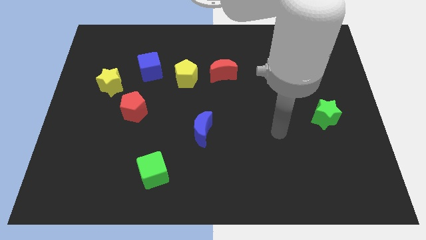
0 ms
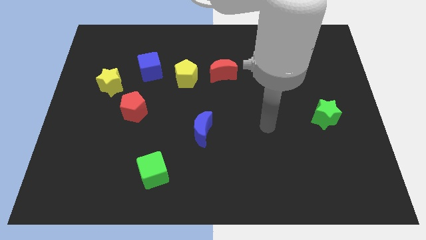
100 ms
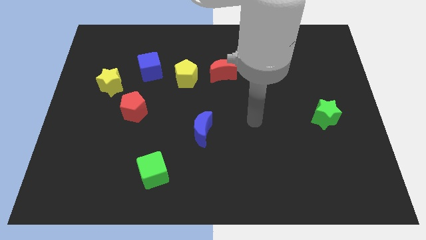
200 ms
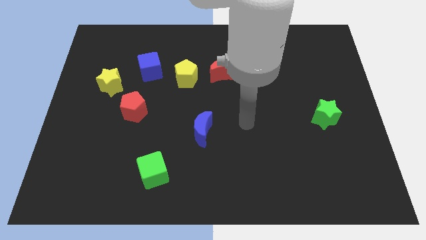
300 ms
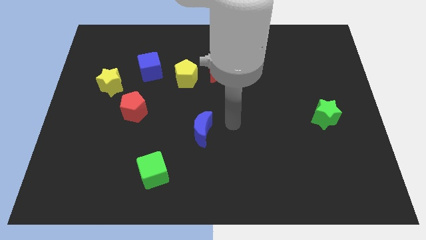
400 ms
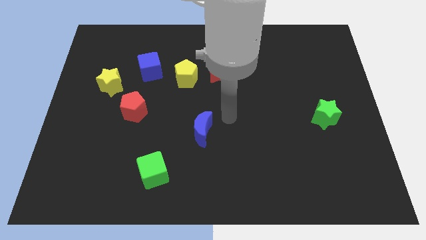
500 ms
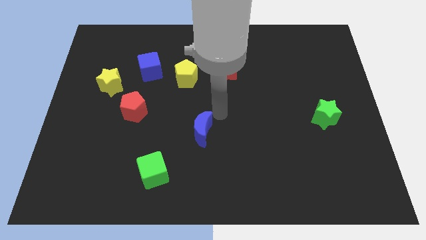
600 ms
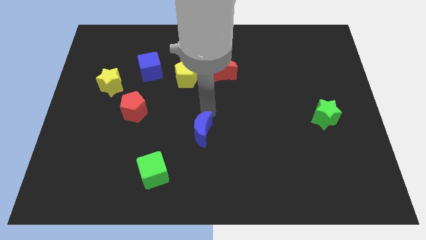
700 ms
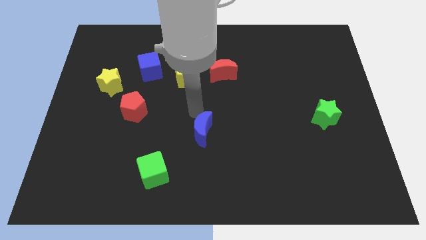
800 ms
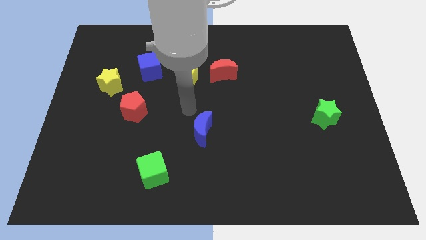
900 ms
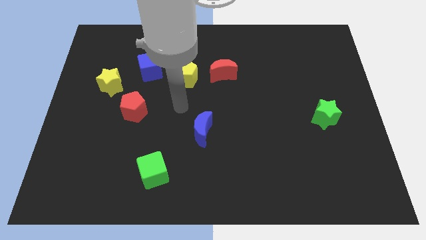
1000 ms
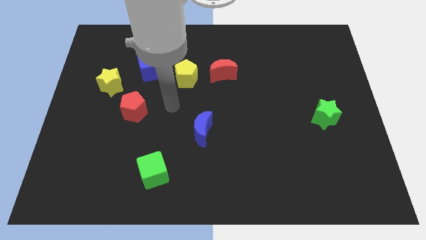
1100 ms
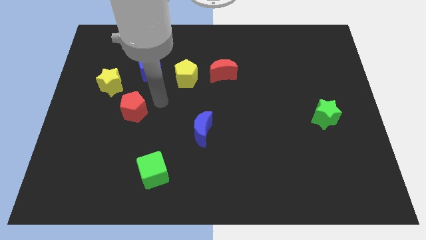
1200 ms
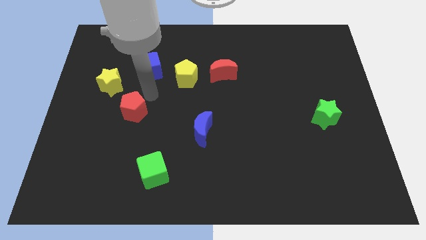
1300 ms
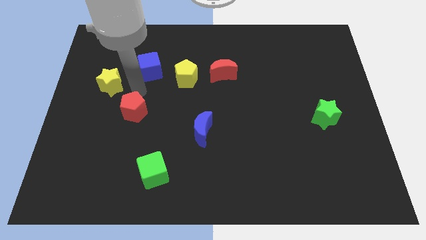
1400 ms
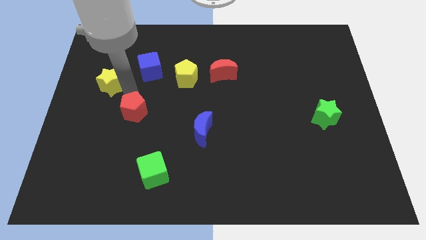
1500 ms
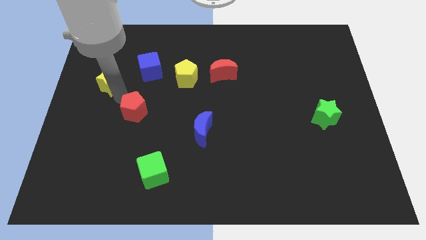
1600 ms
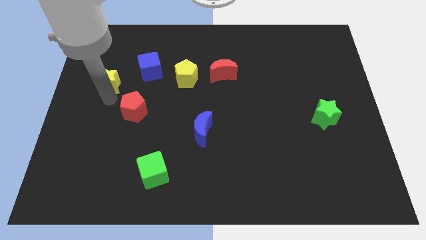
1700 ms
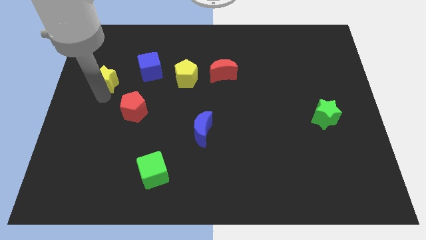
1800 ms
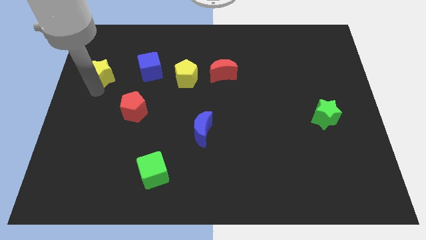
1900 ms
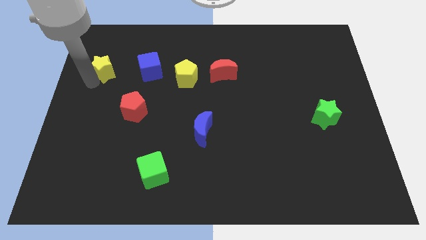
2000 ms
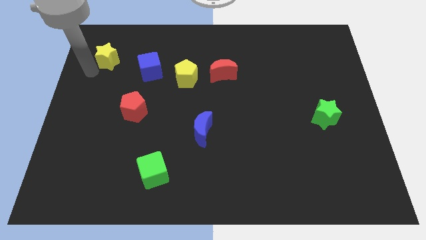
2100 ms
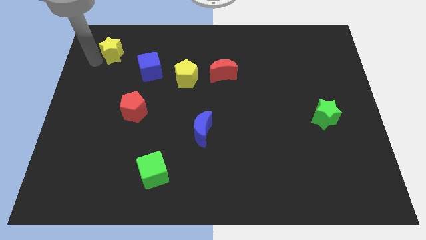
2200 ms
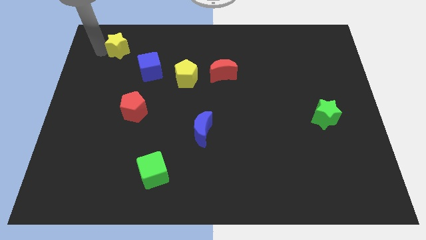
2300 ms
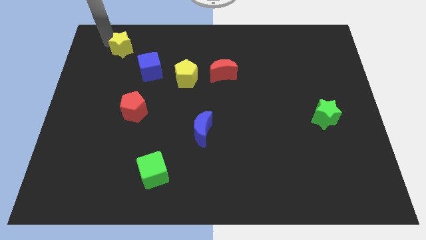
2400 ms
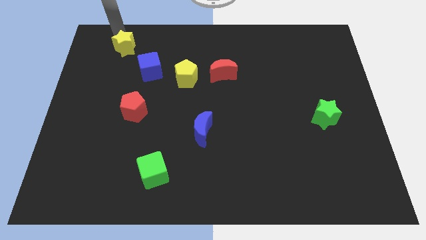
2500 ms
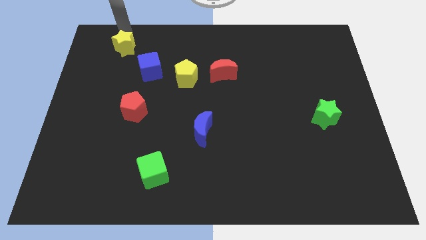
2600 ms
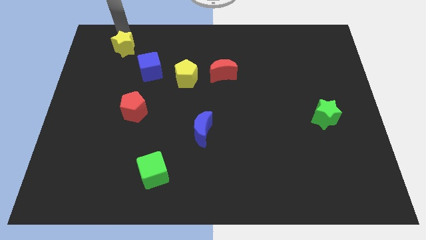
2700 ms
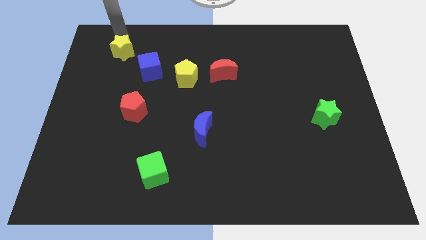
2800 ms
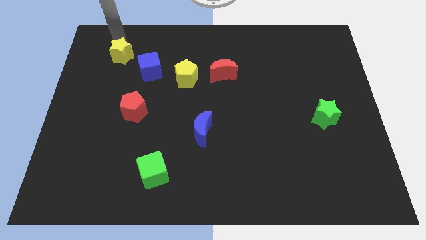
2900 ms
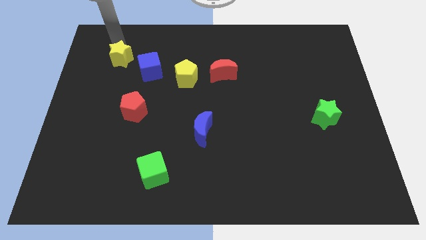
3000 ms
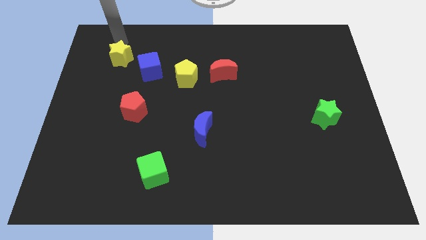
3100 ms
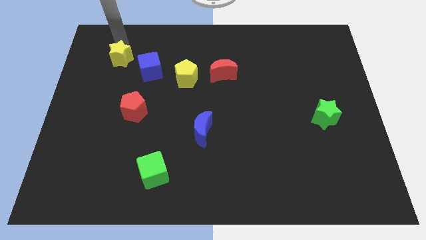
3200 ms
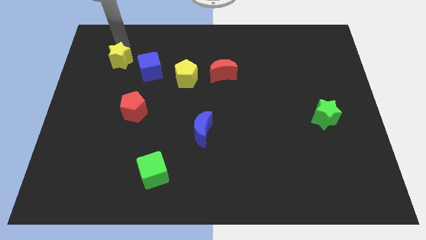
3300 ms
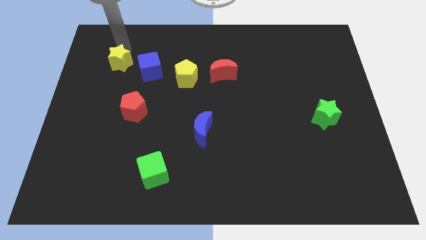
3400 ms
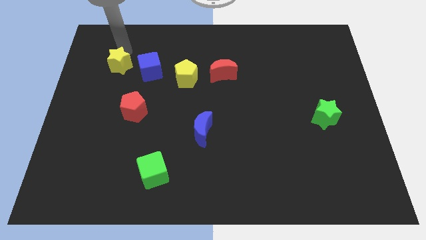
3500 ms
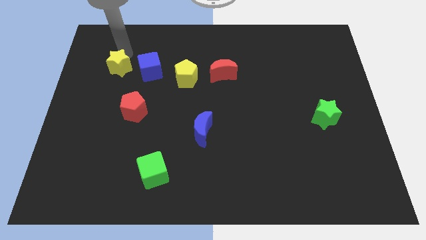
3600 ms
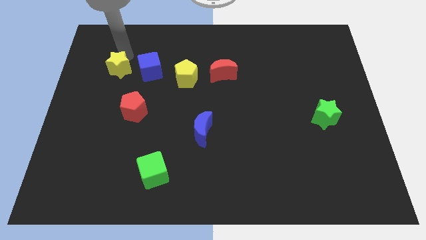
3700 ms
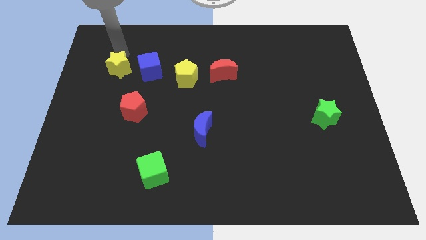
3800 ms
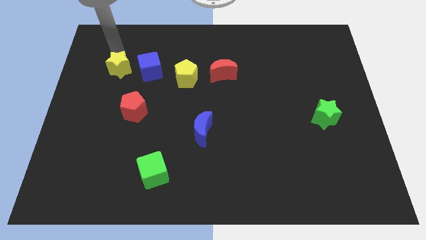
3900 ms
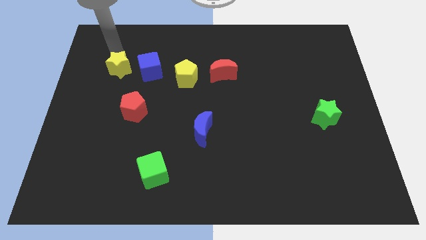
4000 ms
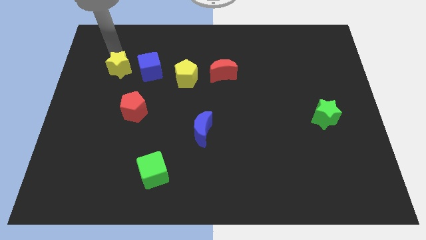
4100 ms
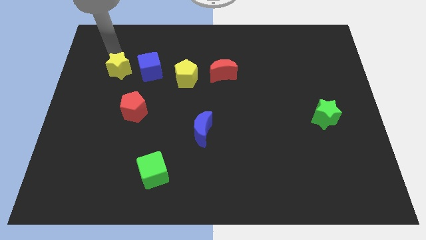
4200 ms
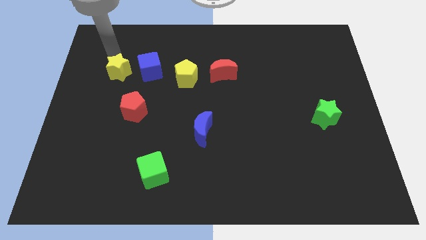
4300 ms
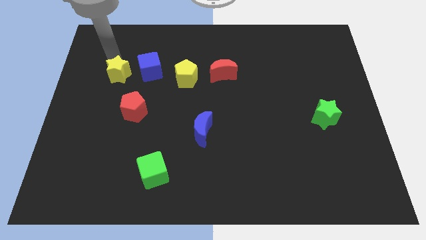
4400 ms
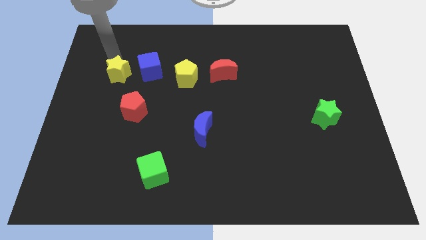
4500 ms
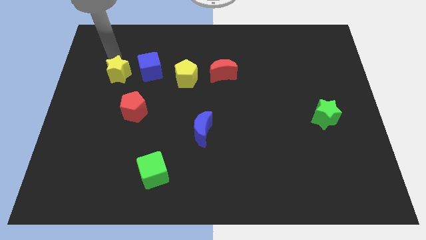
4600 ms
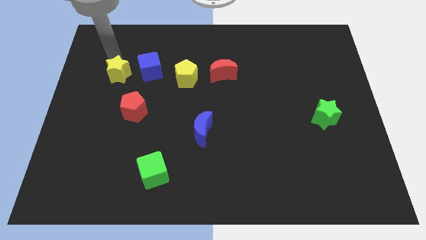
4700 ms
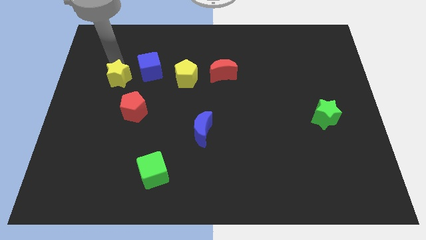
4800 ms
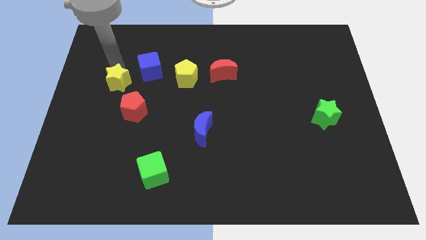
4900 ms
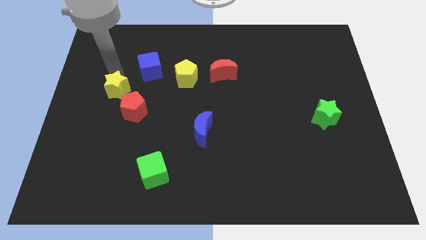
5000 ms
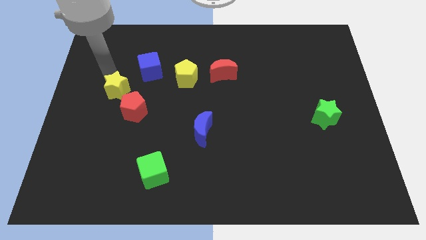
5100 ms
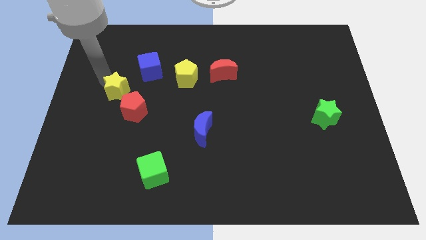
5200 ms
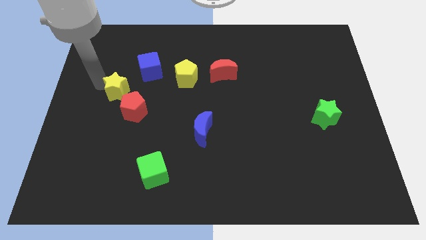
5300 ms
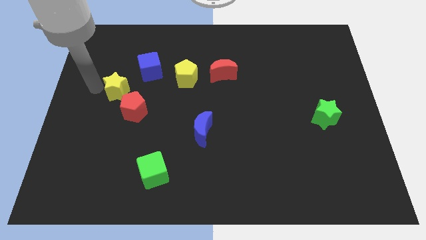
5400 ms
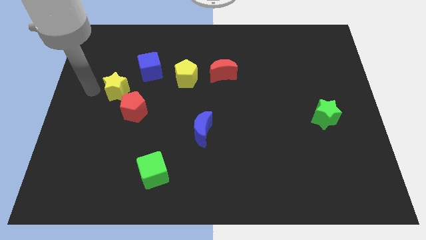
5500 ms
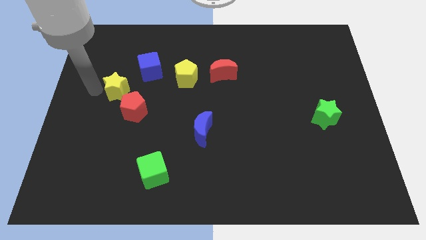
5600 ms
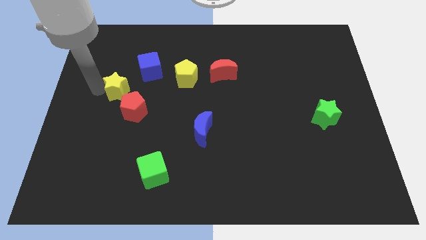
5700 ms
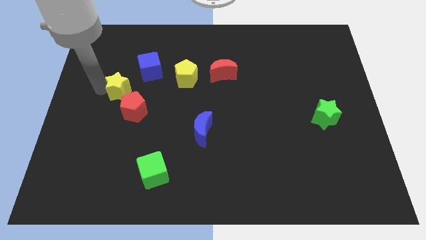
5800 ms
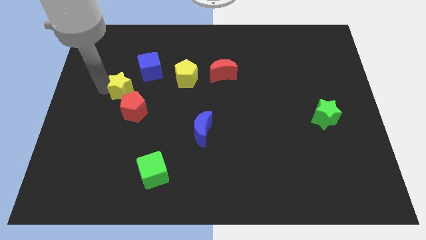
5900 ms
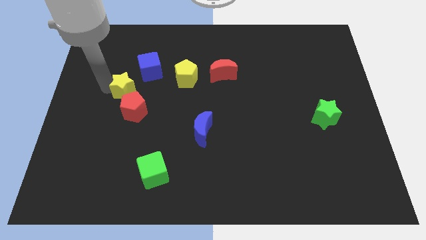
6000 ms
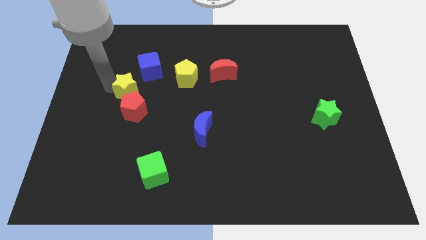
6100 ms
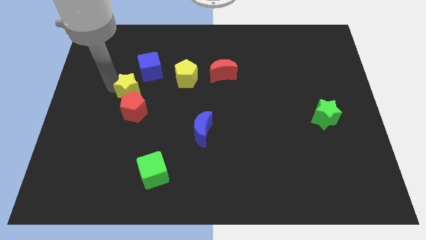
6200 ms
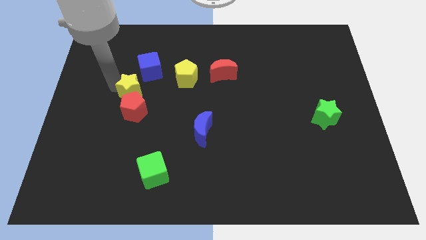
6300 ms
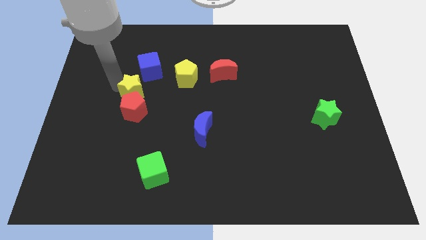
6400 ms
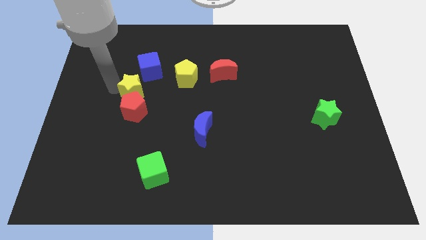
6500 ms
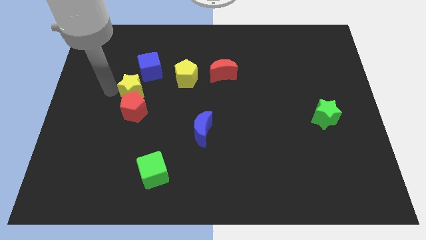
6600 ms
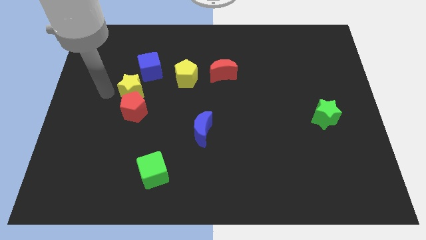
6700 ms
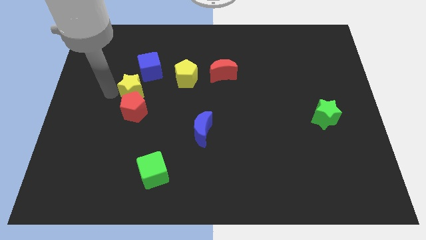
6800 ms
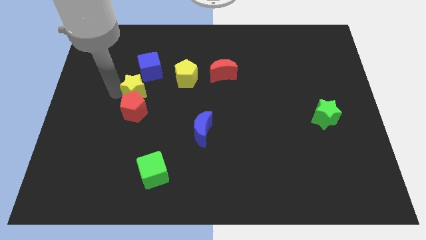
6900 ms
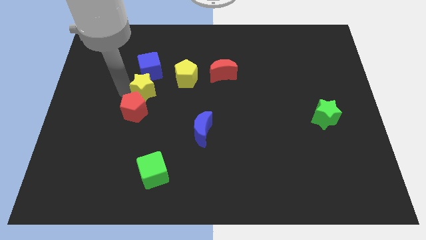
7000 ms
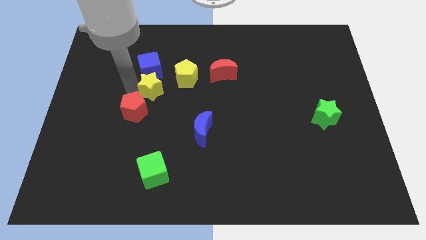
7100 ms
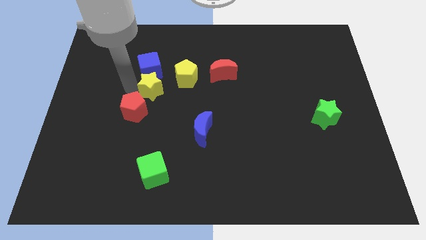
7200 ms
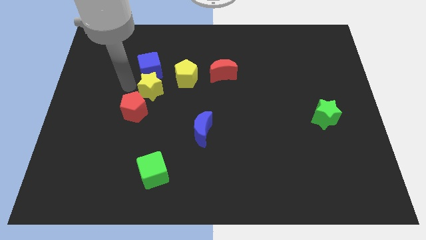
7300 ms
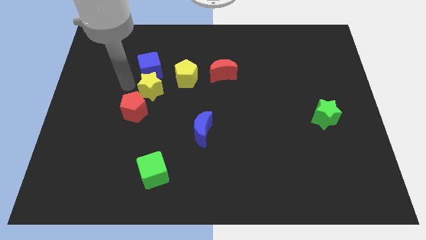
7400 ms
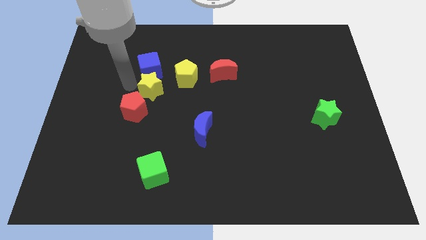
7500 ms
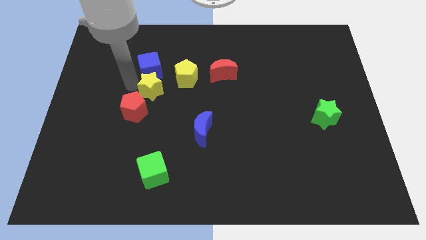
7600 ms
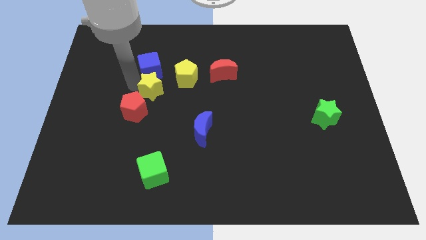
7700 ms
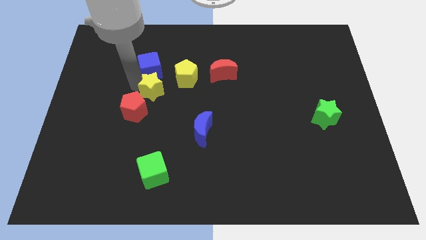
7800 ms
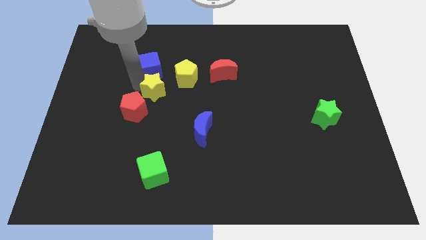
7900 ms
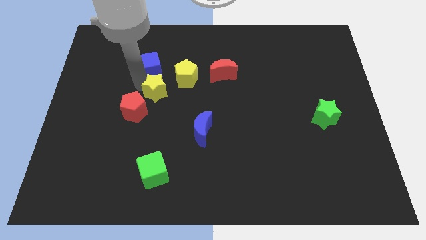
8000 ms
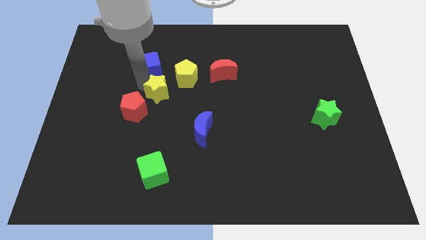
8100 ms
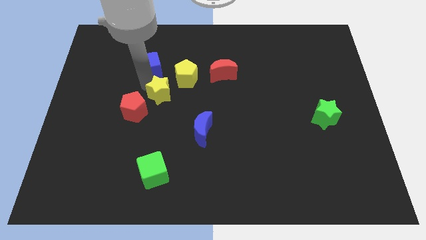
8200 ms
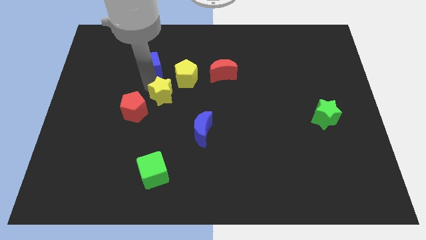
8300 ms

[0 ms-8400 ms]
put the yellow star to the center of the board
